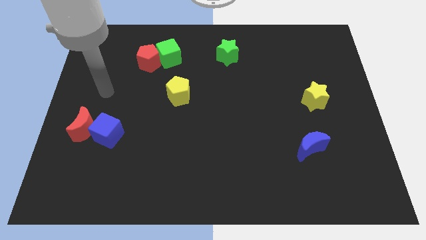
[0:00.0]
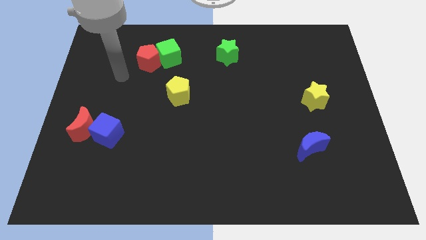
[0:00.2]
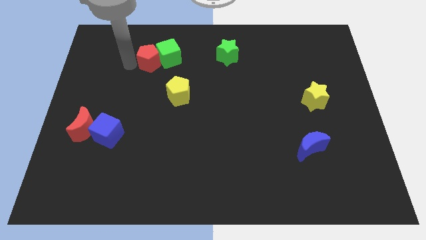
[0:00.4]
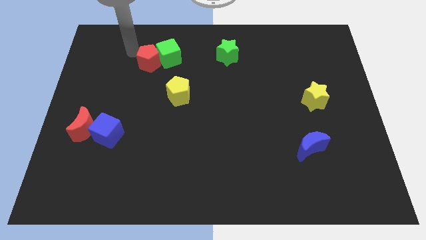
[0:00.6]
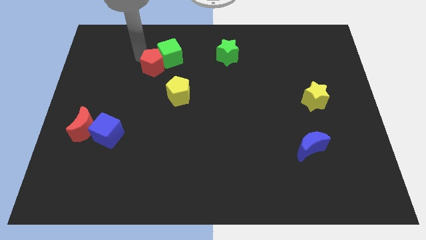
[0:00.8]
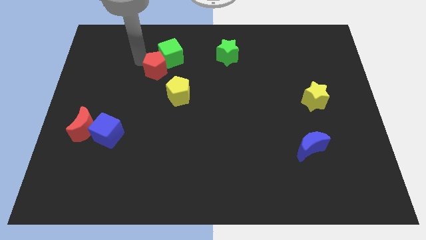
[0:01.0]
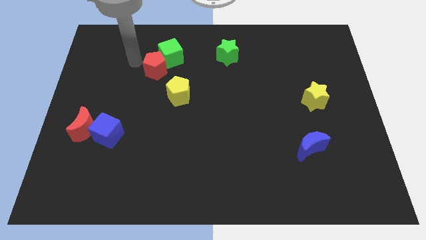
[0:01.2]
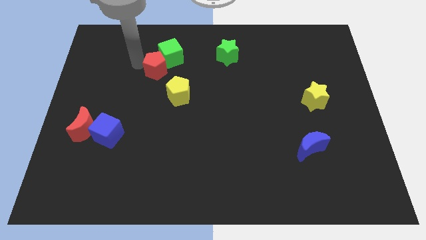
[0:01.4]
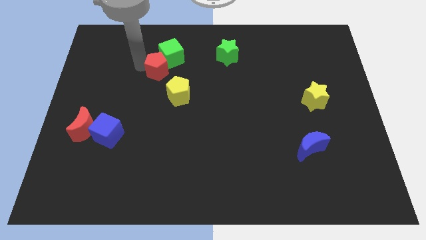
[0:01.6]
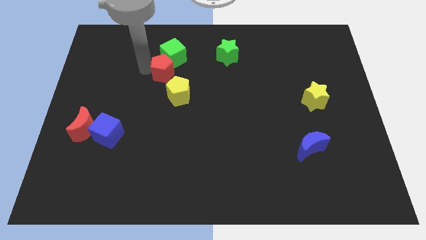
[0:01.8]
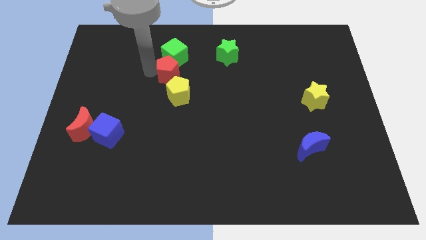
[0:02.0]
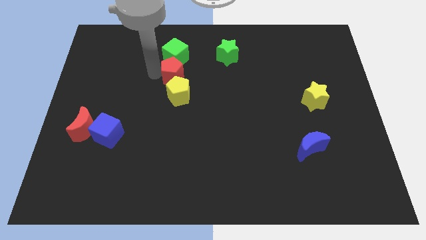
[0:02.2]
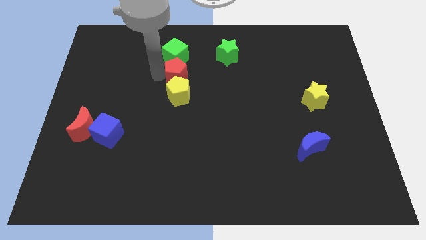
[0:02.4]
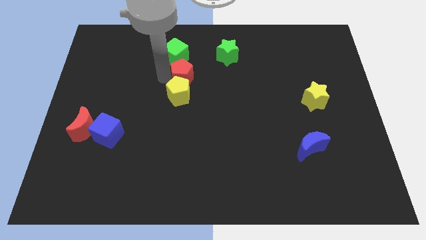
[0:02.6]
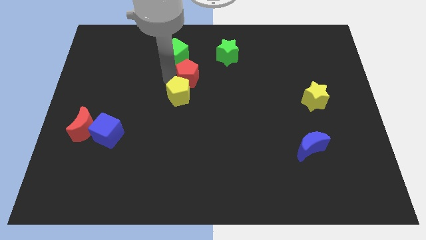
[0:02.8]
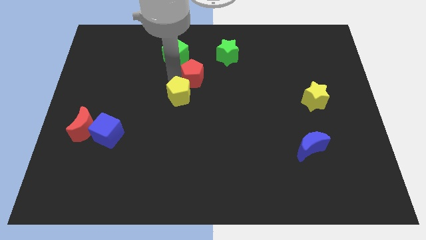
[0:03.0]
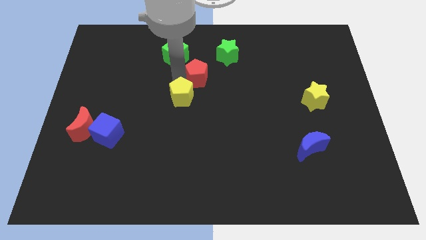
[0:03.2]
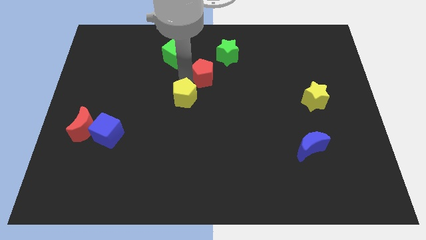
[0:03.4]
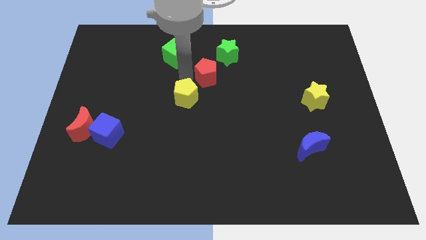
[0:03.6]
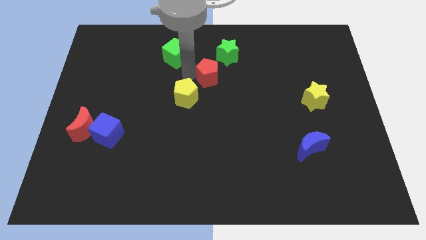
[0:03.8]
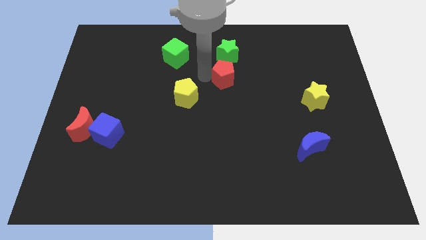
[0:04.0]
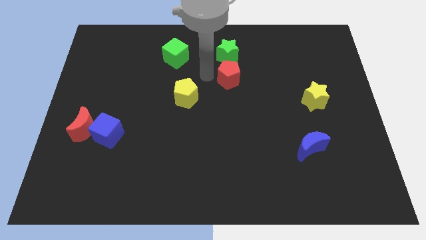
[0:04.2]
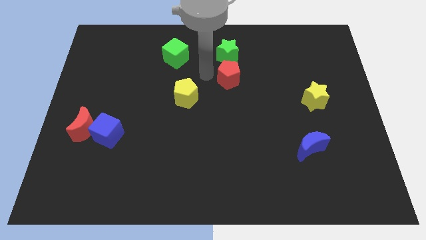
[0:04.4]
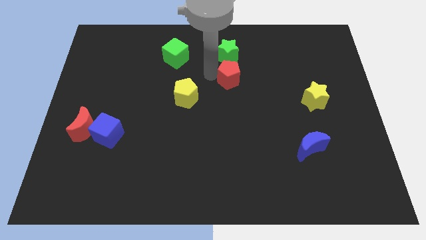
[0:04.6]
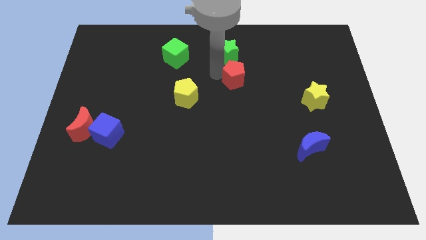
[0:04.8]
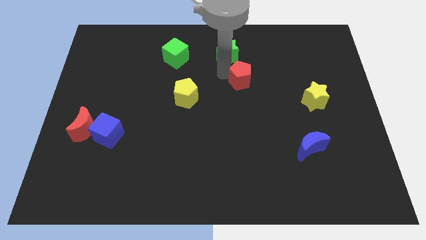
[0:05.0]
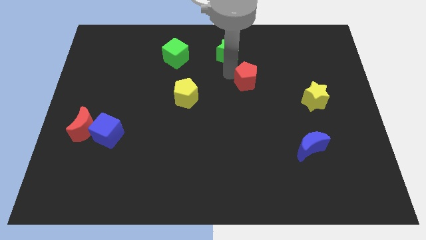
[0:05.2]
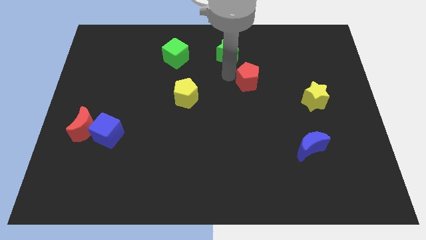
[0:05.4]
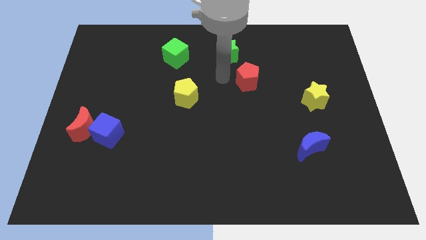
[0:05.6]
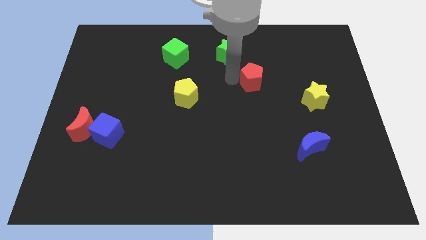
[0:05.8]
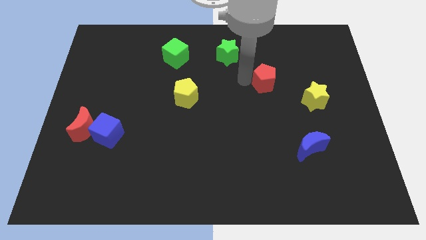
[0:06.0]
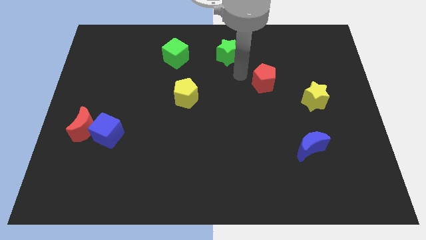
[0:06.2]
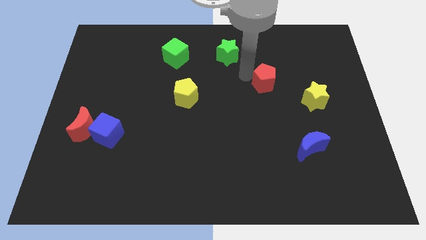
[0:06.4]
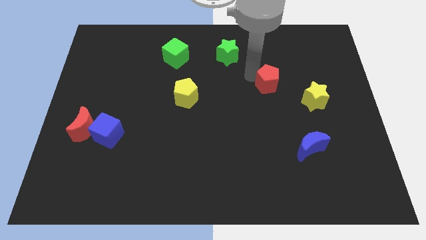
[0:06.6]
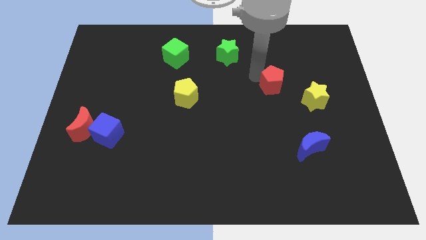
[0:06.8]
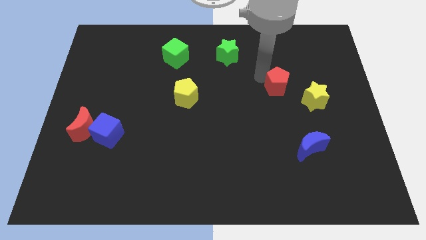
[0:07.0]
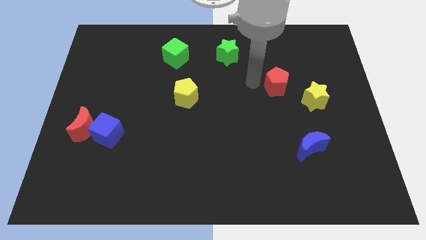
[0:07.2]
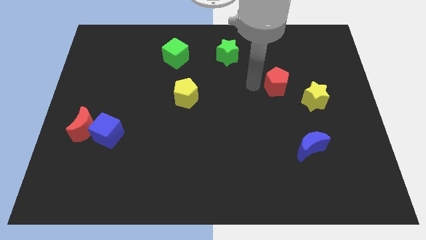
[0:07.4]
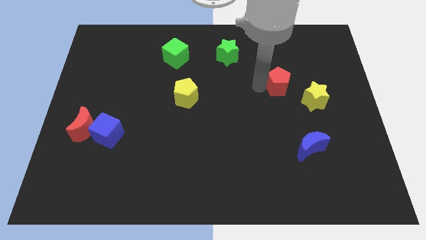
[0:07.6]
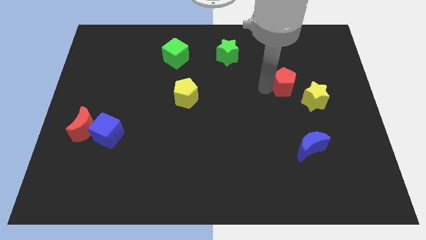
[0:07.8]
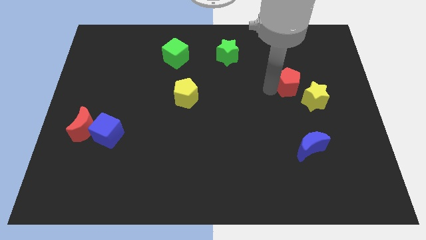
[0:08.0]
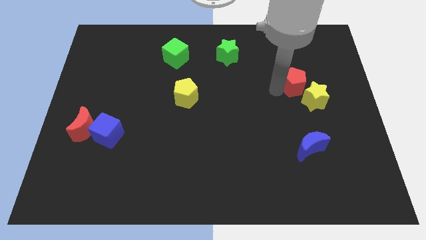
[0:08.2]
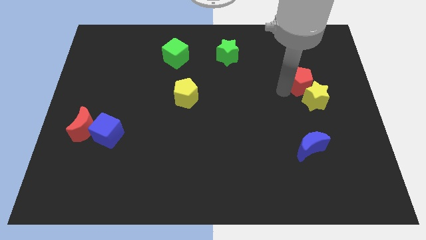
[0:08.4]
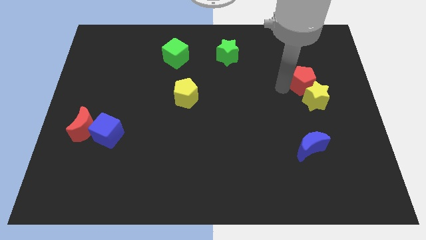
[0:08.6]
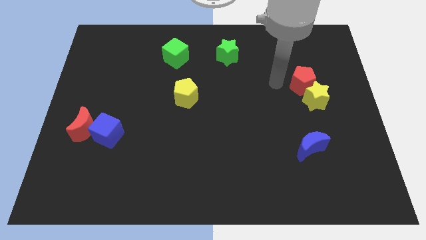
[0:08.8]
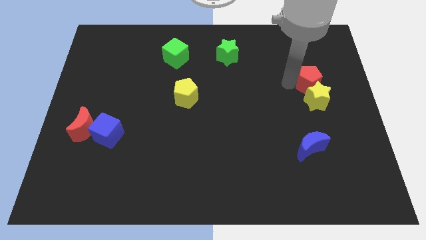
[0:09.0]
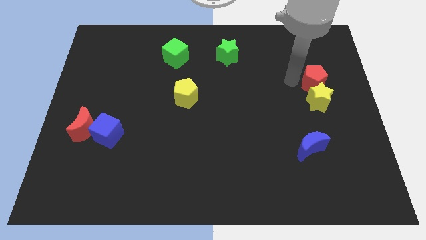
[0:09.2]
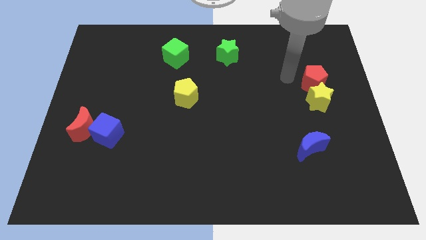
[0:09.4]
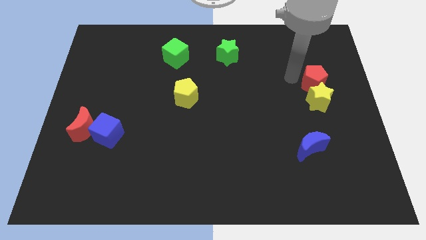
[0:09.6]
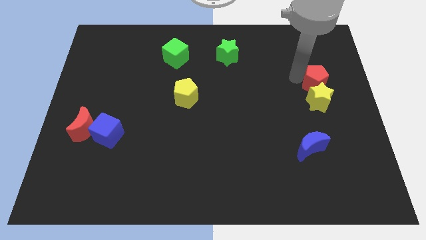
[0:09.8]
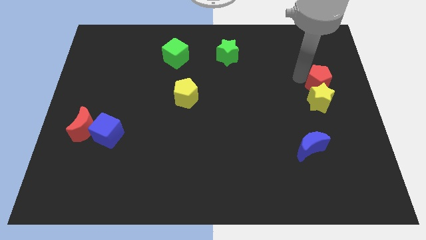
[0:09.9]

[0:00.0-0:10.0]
put the red pentagon to the center right

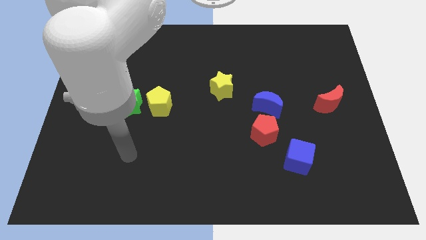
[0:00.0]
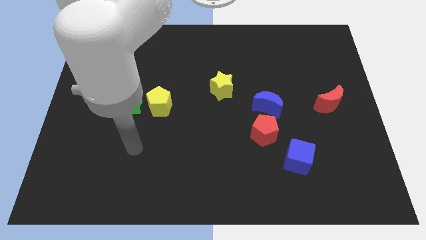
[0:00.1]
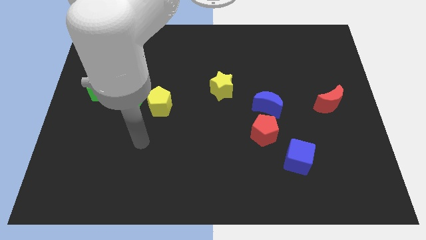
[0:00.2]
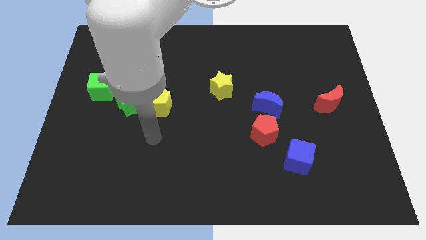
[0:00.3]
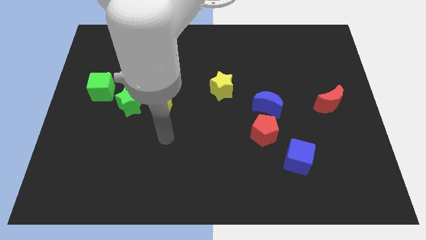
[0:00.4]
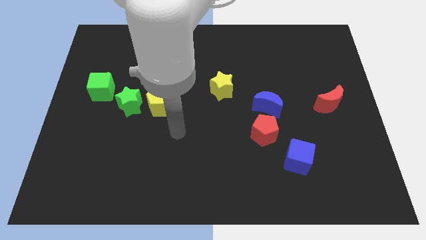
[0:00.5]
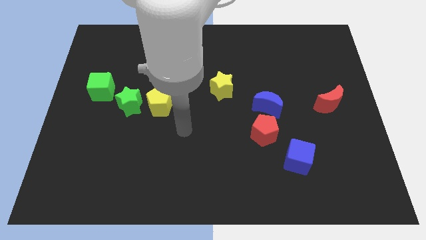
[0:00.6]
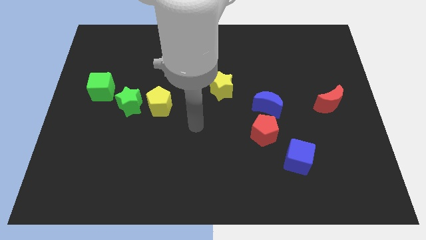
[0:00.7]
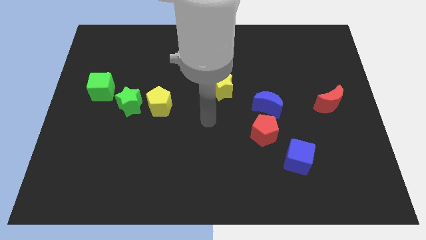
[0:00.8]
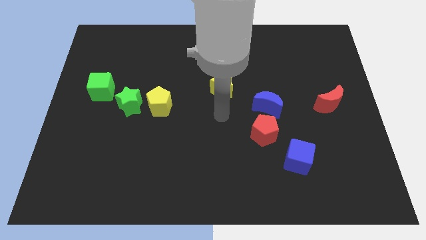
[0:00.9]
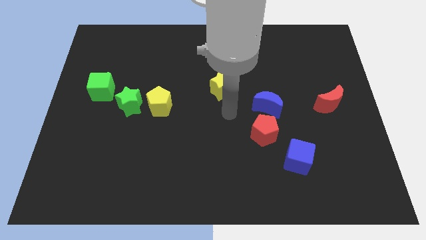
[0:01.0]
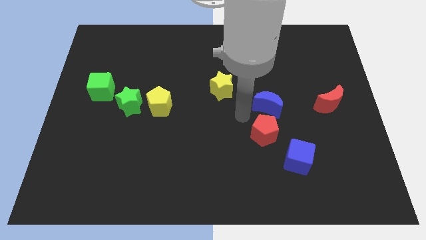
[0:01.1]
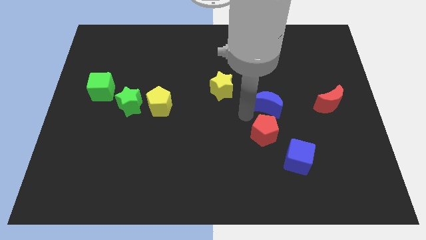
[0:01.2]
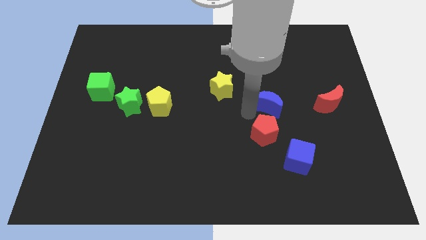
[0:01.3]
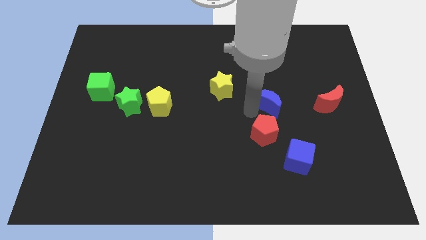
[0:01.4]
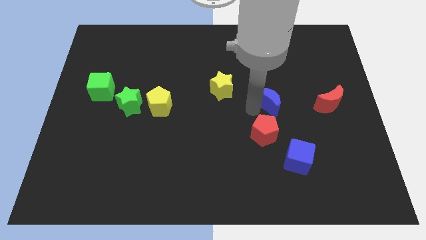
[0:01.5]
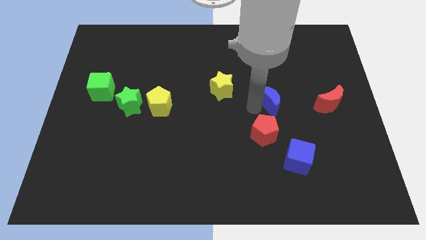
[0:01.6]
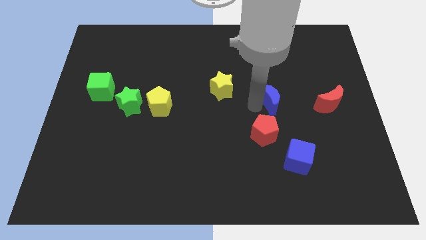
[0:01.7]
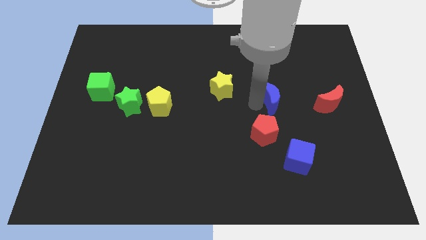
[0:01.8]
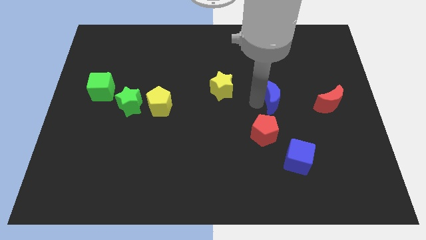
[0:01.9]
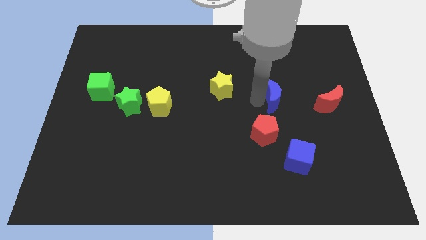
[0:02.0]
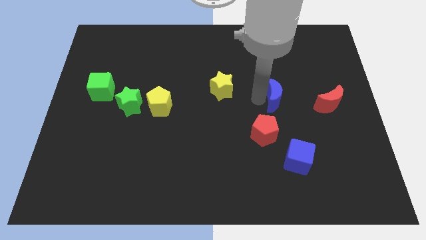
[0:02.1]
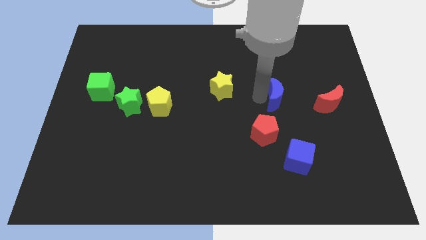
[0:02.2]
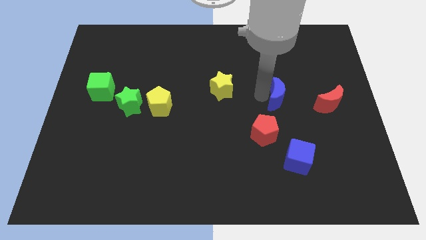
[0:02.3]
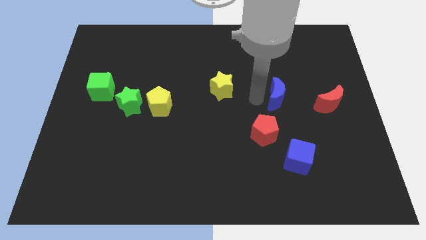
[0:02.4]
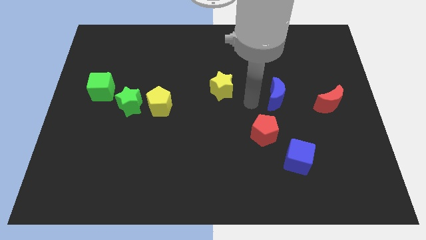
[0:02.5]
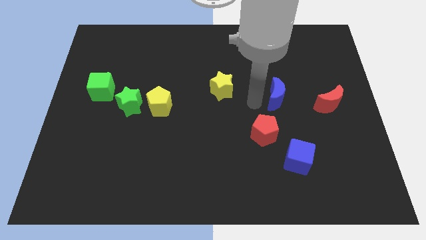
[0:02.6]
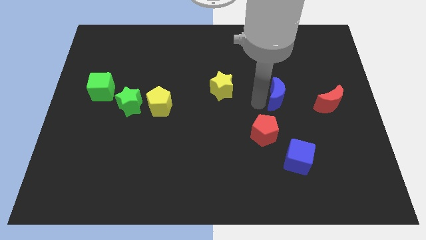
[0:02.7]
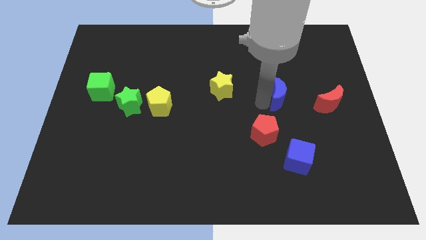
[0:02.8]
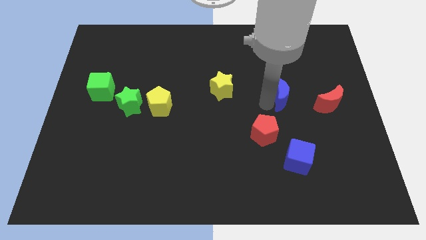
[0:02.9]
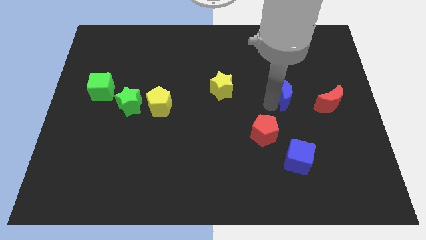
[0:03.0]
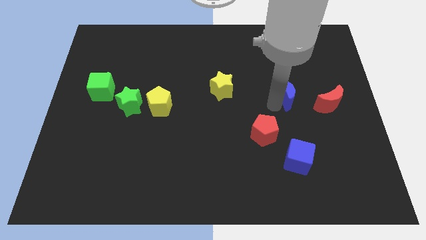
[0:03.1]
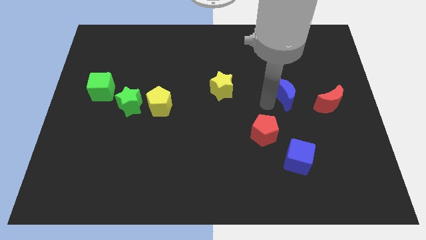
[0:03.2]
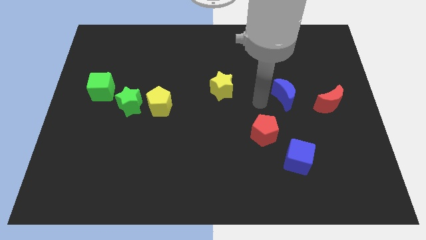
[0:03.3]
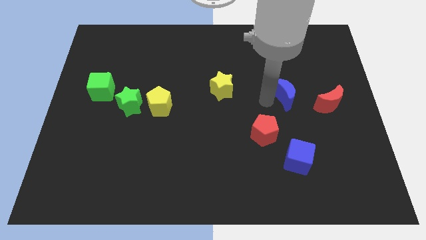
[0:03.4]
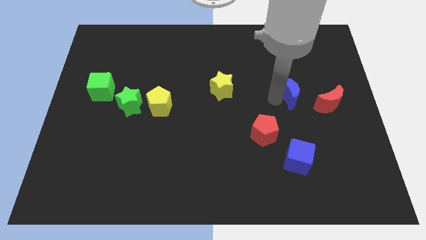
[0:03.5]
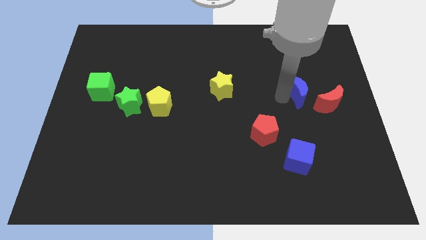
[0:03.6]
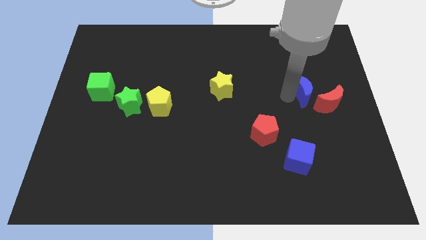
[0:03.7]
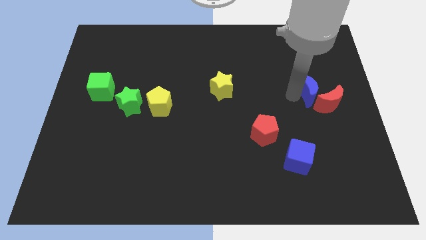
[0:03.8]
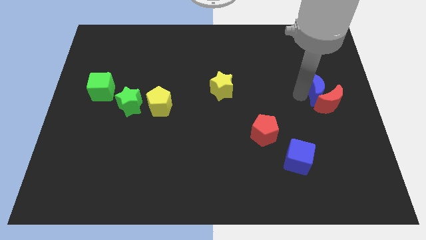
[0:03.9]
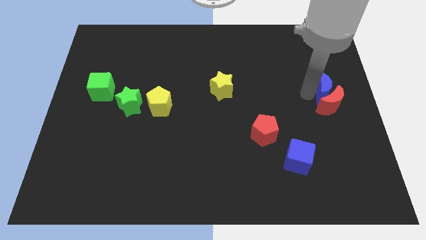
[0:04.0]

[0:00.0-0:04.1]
move the blue moon to the right side of the board
